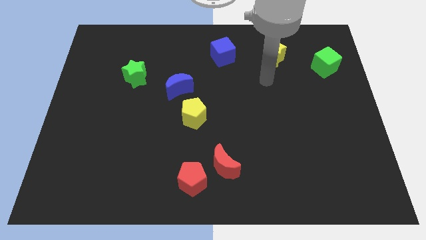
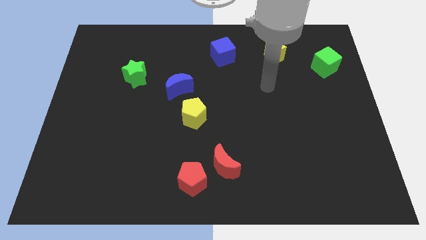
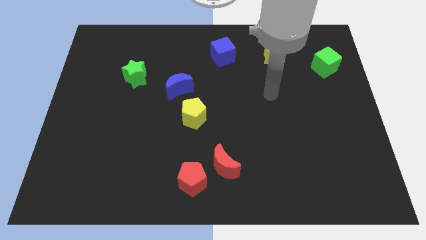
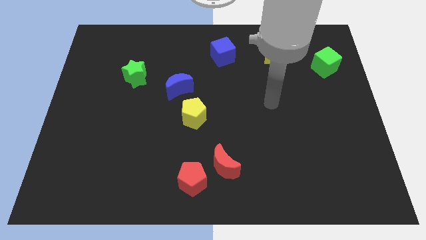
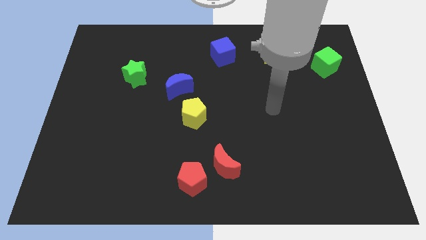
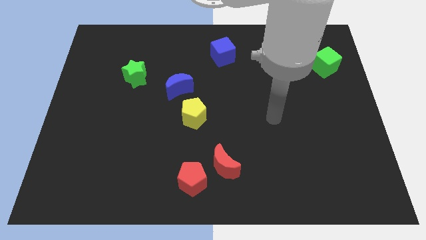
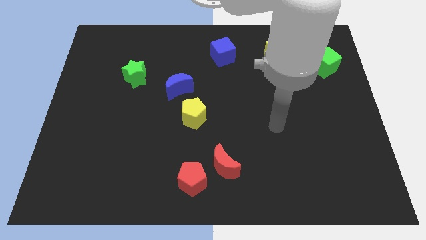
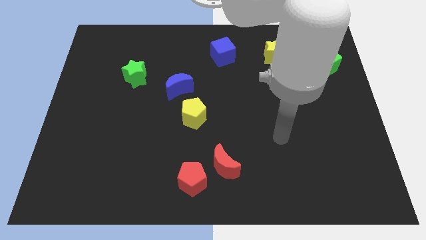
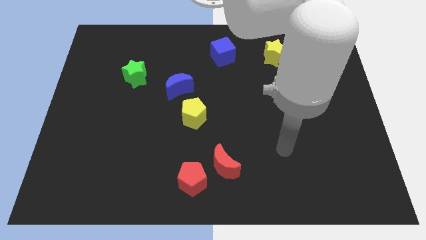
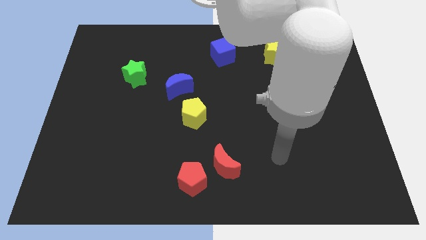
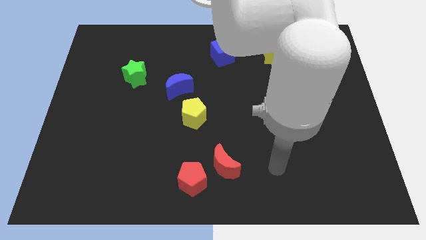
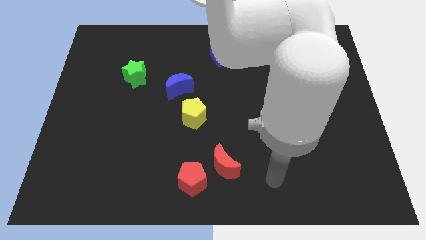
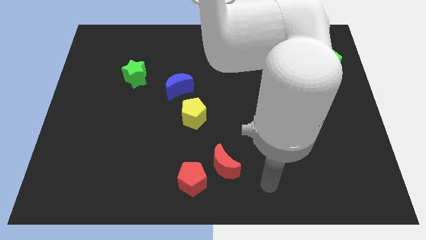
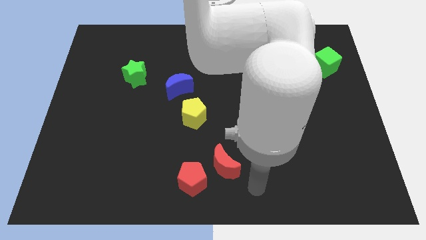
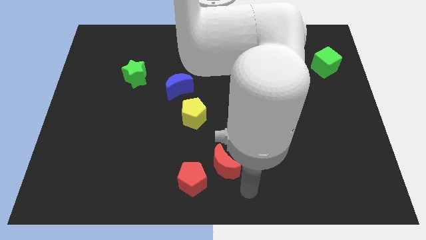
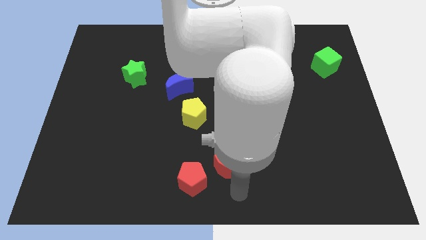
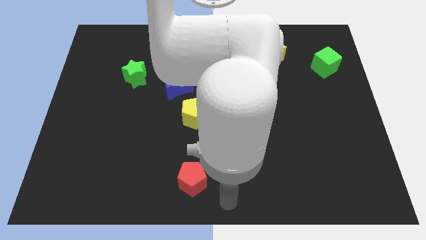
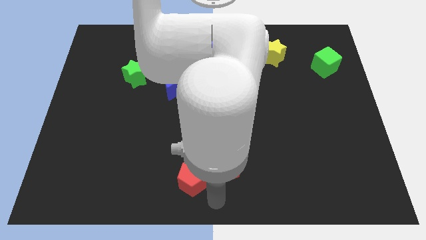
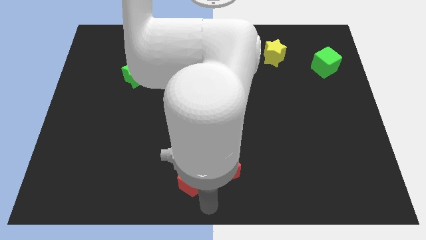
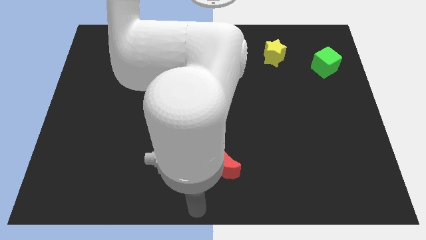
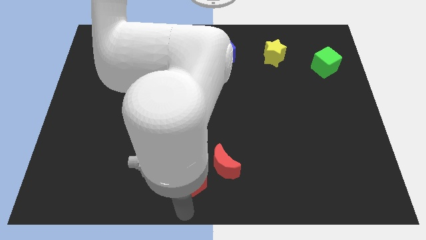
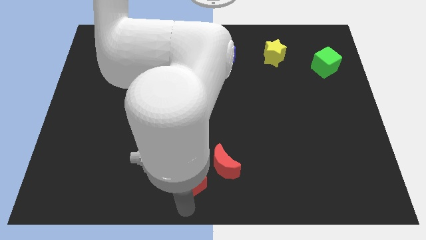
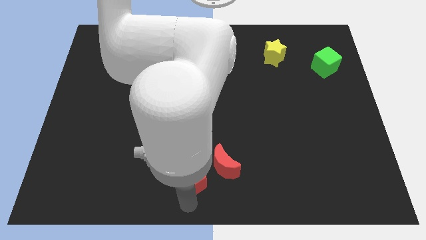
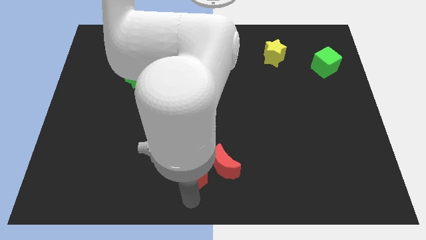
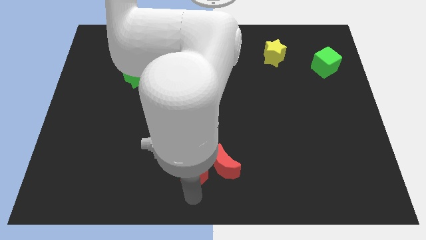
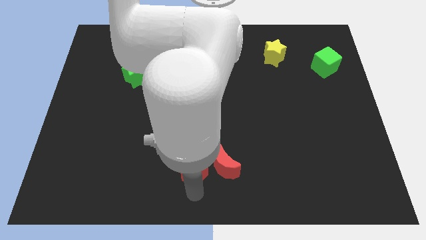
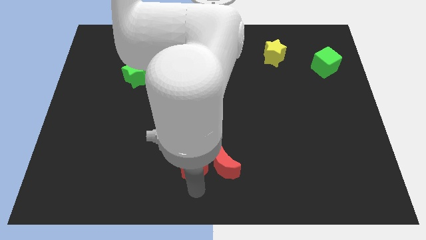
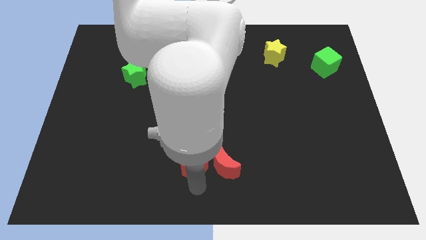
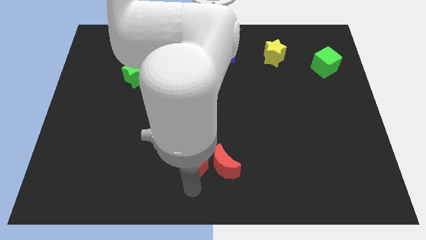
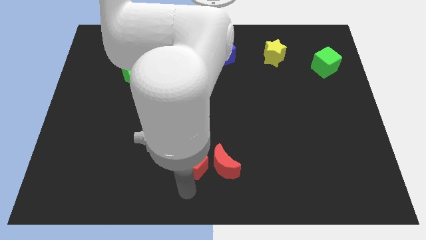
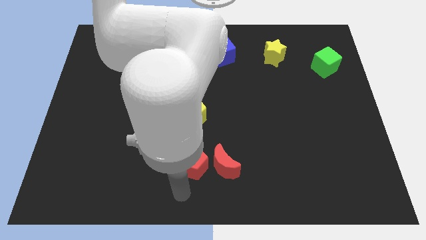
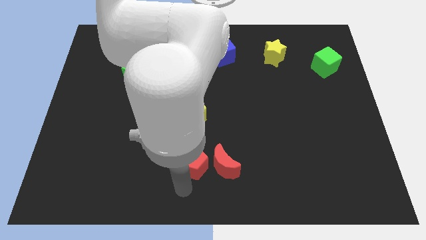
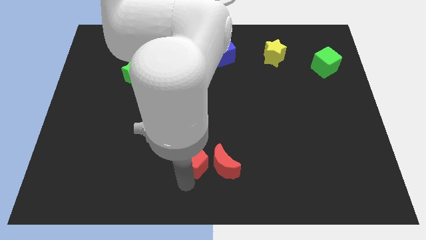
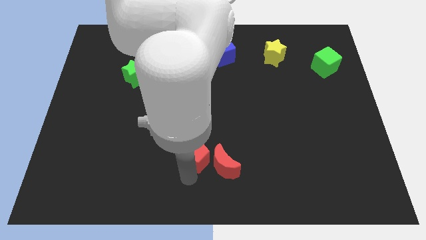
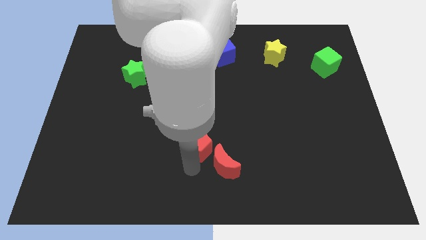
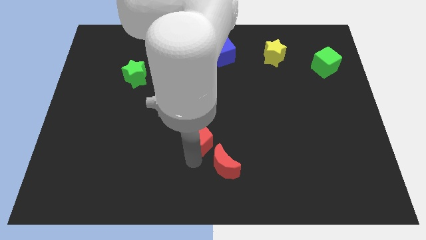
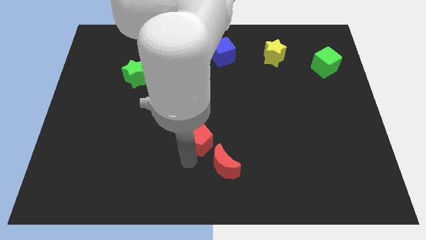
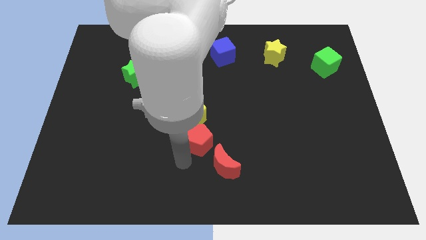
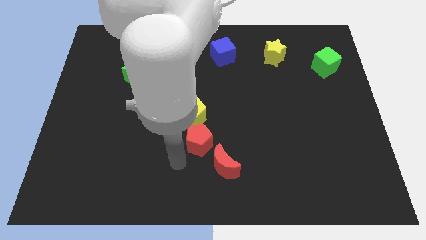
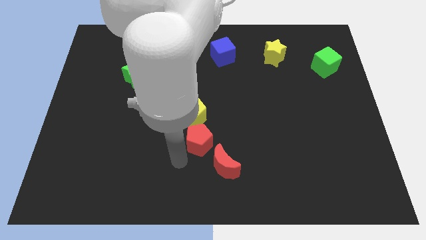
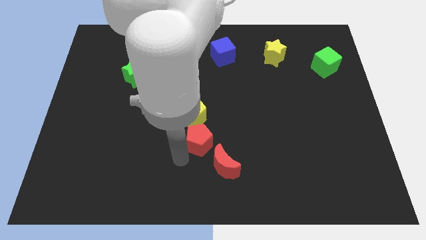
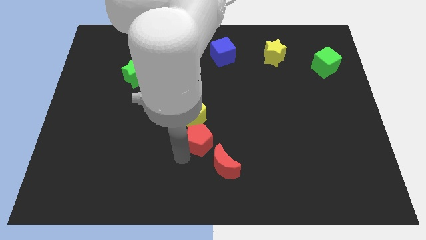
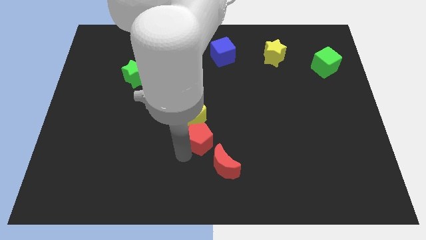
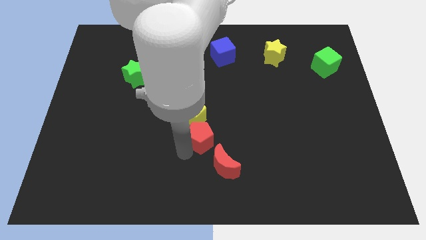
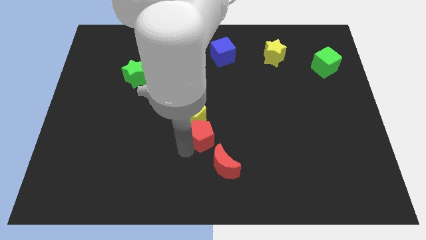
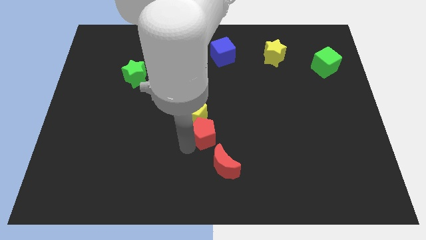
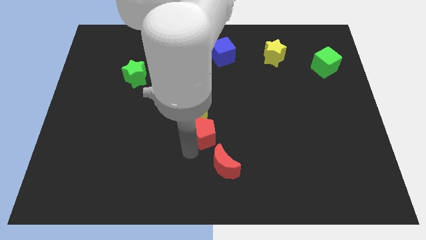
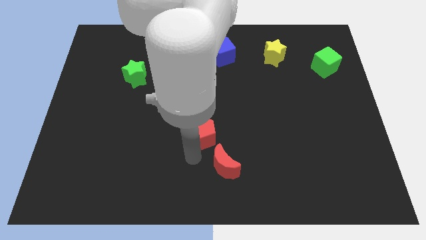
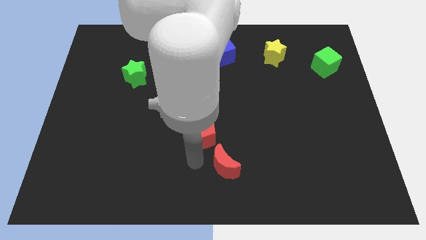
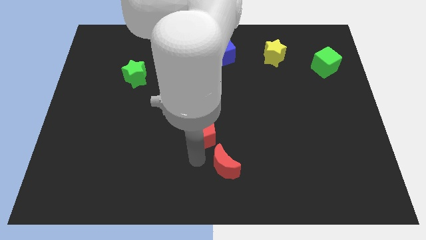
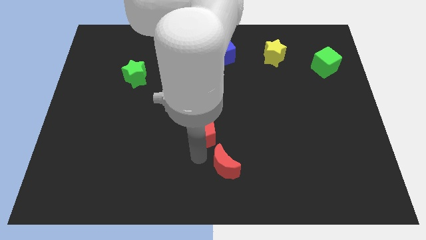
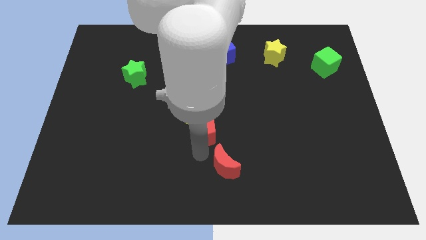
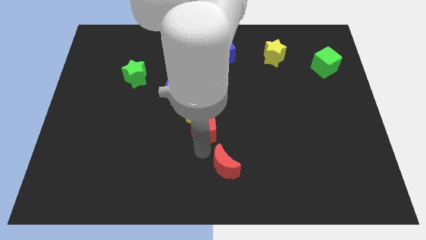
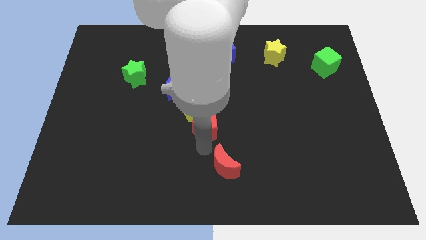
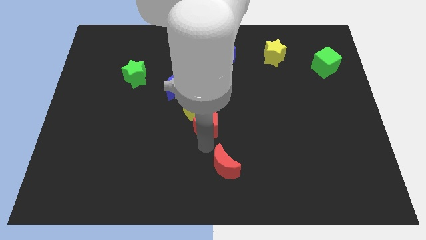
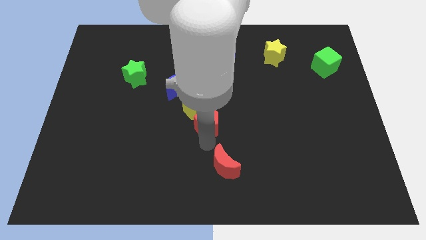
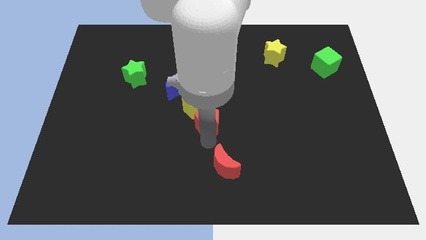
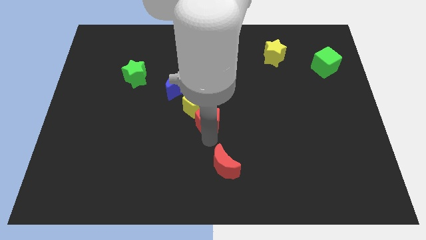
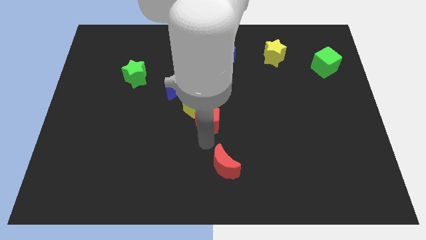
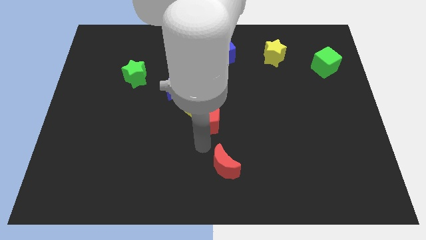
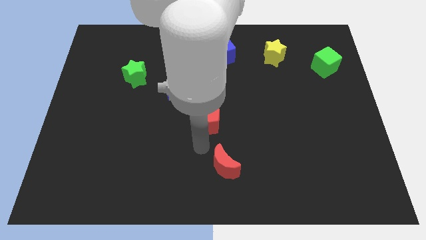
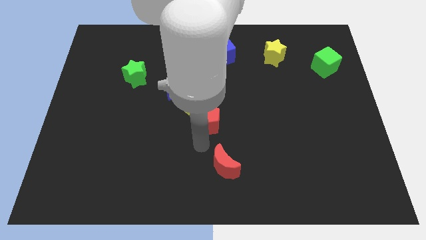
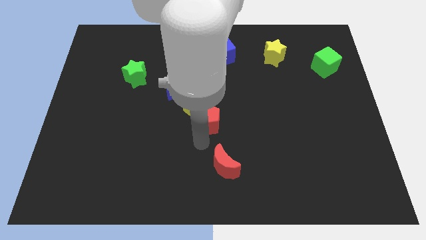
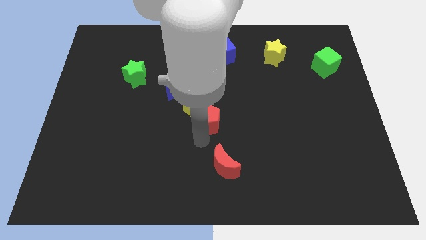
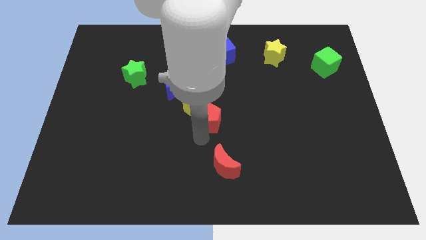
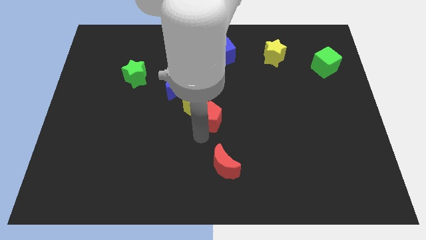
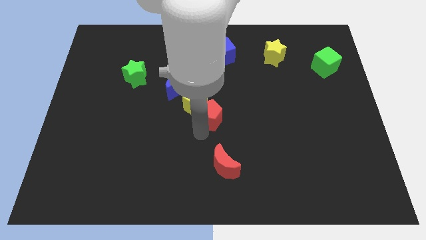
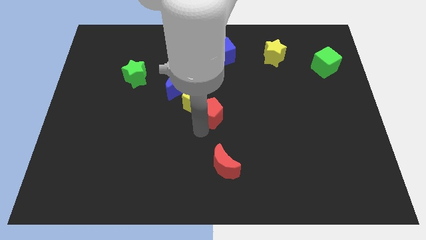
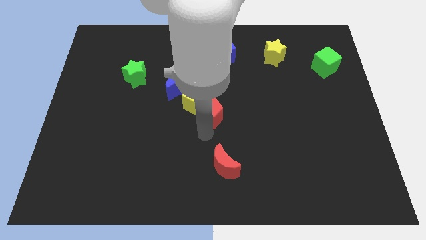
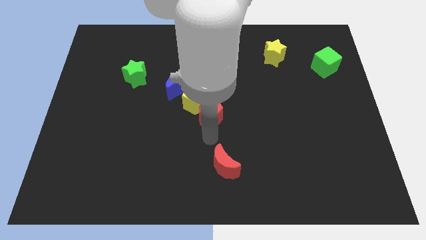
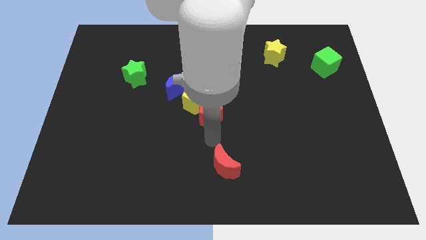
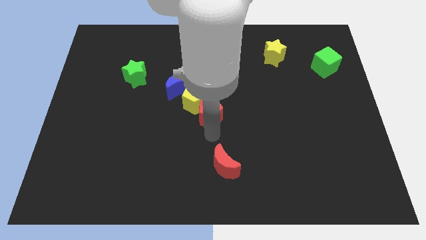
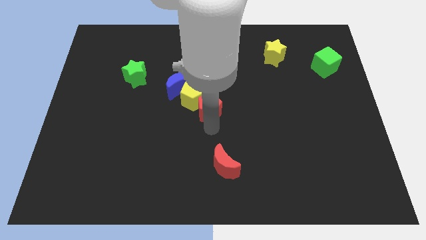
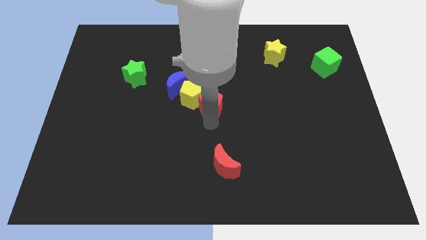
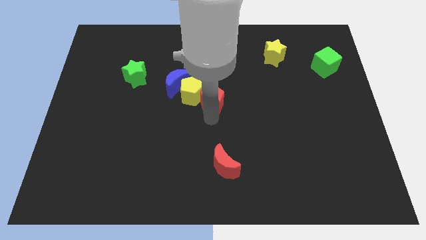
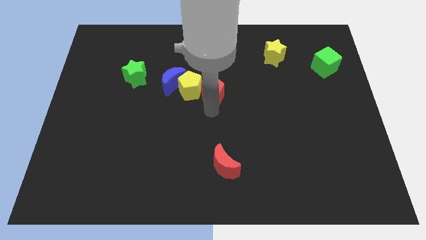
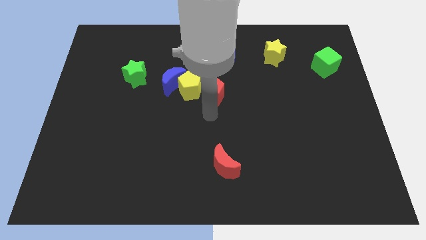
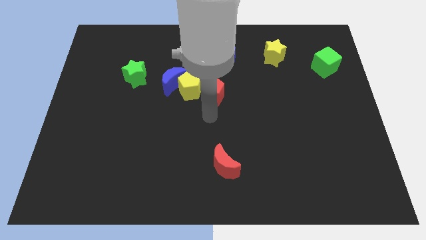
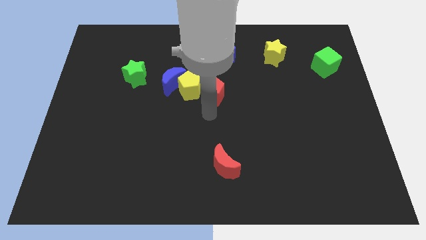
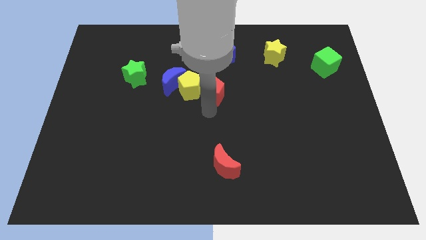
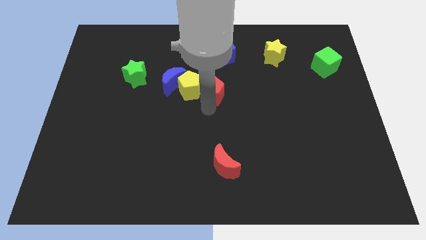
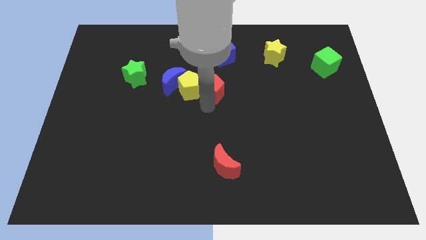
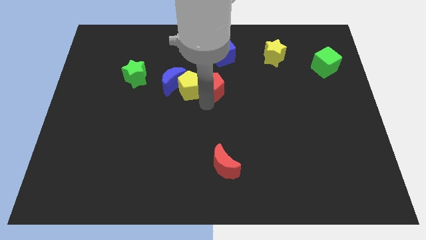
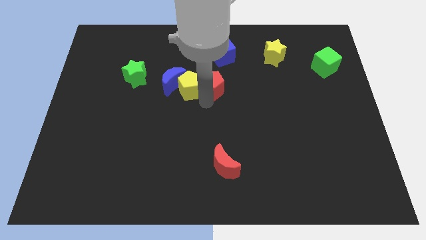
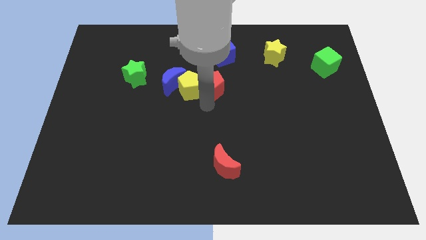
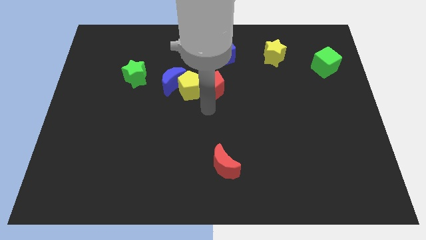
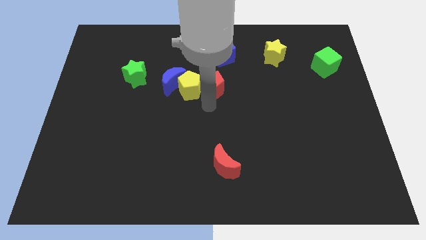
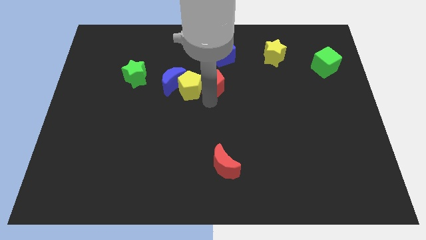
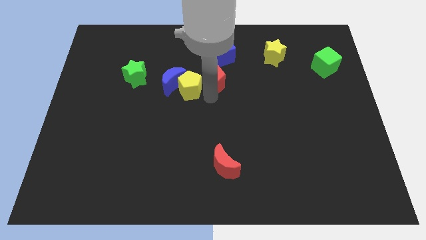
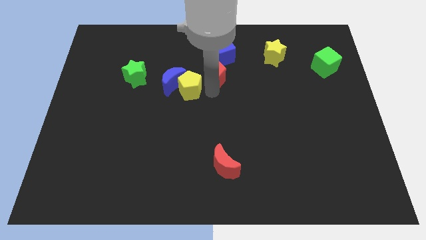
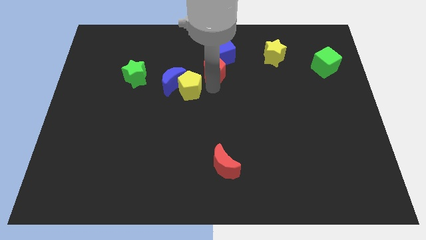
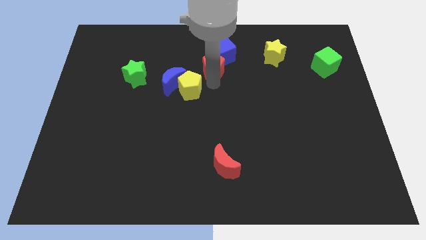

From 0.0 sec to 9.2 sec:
put the red pentagon to the blue cube
